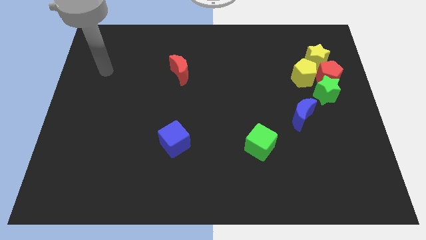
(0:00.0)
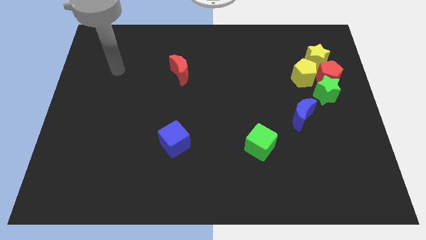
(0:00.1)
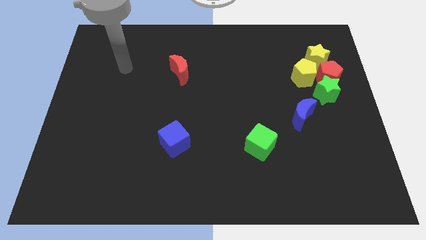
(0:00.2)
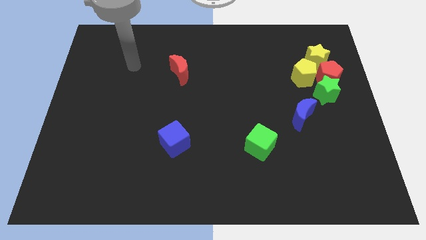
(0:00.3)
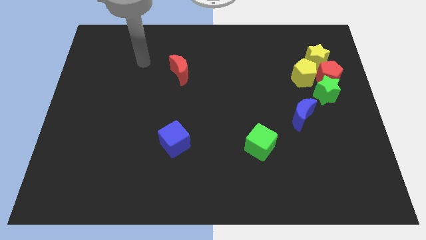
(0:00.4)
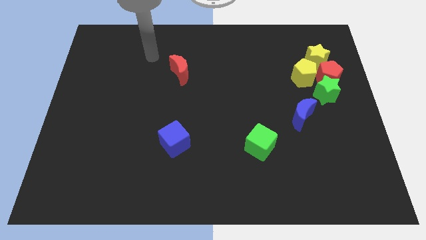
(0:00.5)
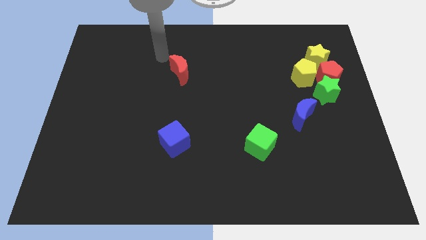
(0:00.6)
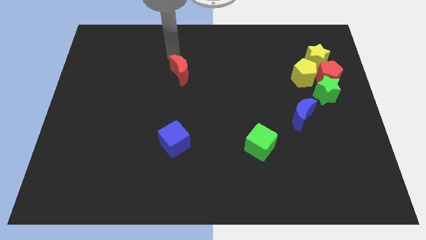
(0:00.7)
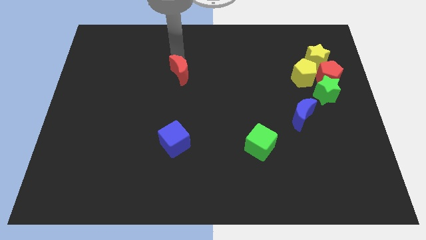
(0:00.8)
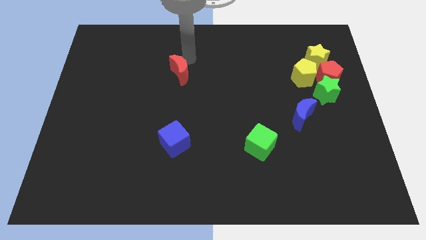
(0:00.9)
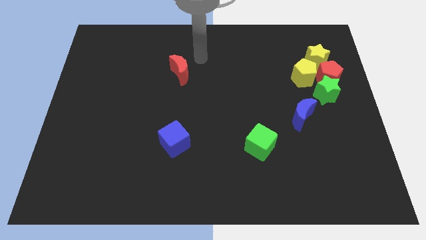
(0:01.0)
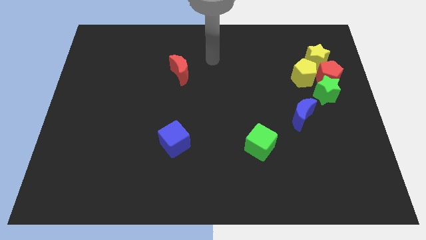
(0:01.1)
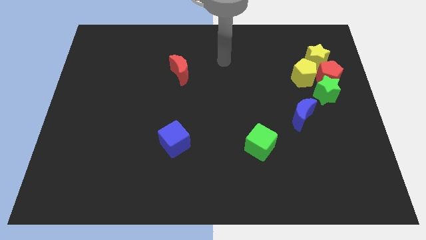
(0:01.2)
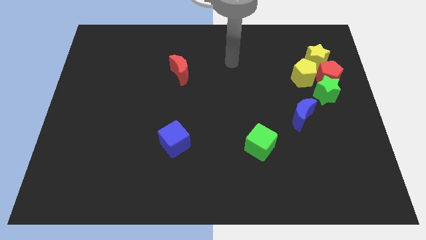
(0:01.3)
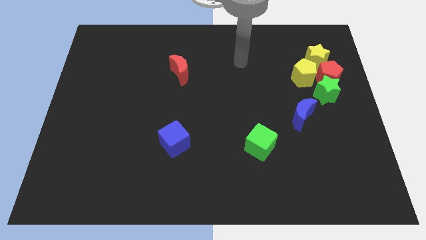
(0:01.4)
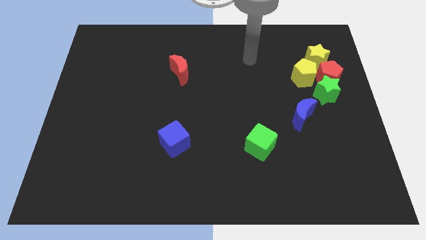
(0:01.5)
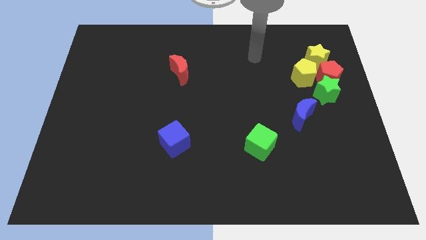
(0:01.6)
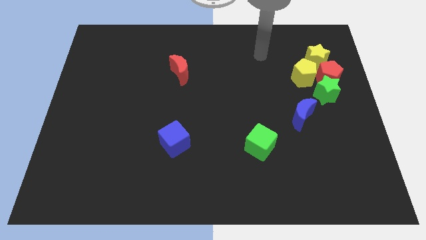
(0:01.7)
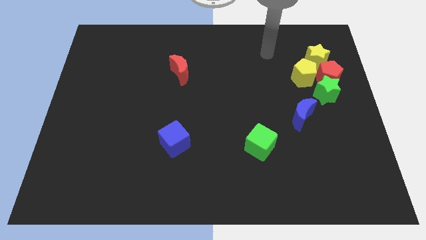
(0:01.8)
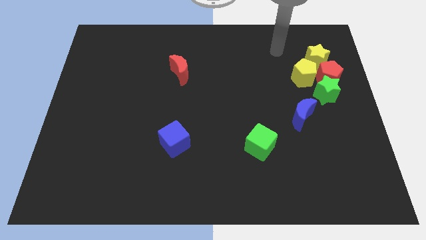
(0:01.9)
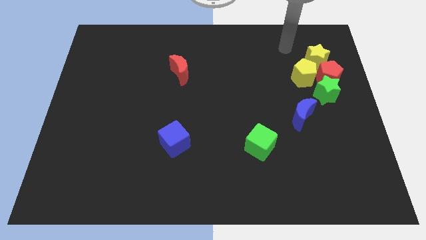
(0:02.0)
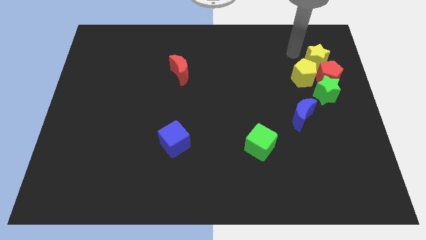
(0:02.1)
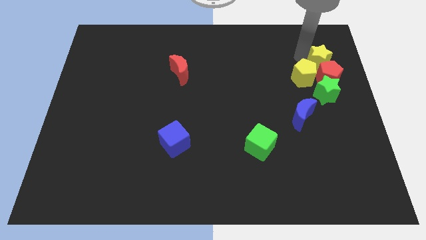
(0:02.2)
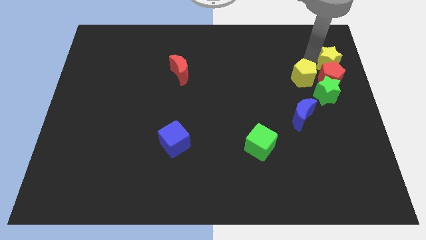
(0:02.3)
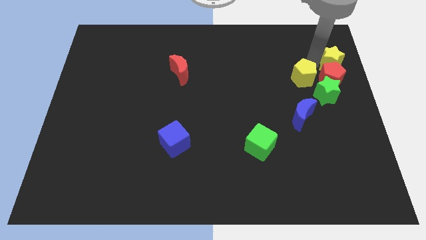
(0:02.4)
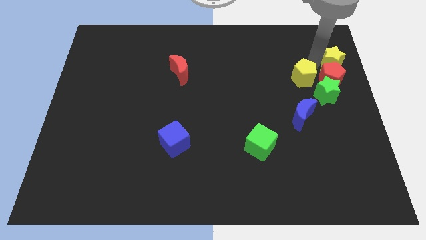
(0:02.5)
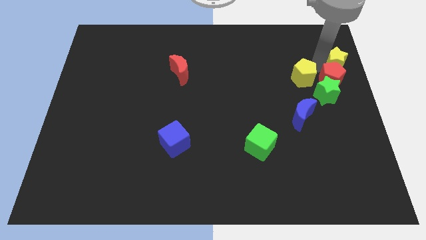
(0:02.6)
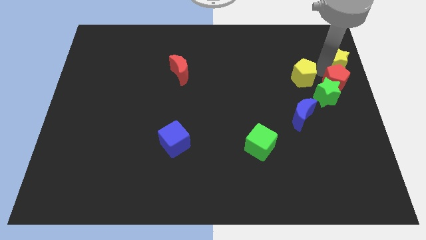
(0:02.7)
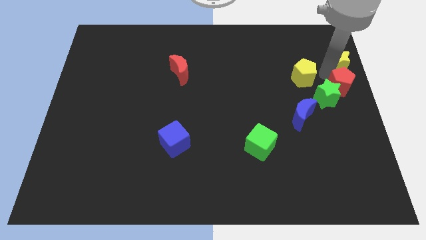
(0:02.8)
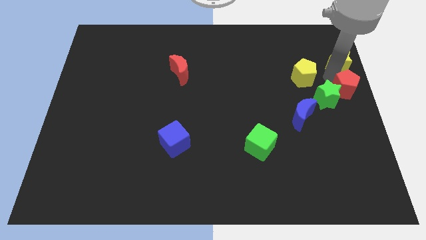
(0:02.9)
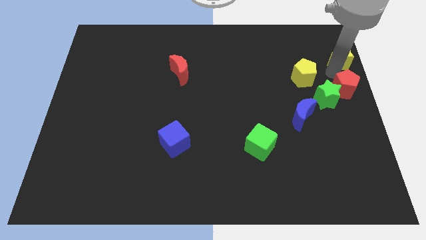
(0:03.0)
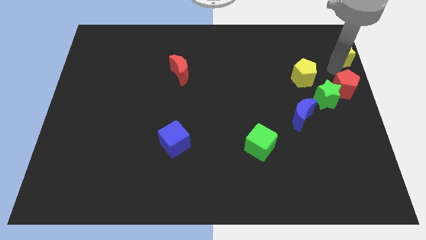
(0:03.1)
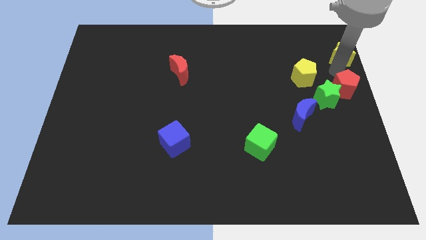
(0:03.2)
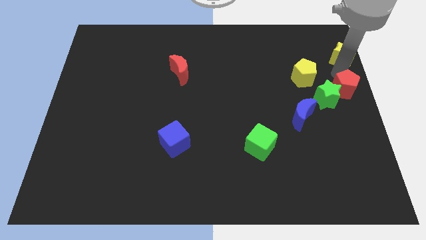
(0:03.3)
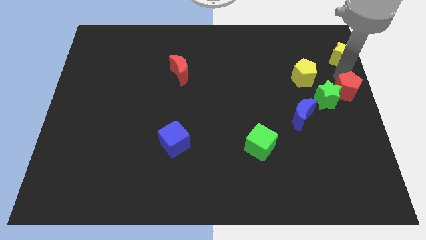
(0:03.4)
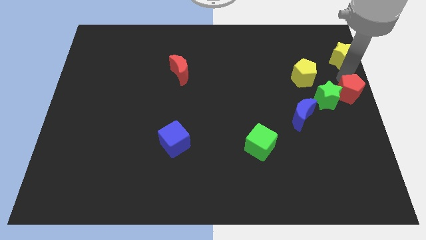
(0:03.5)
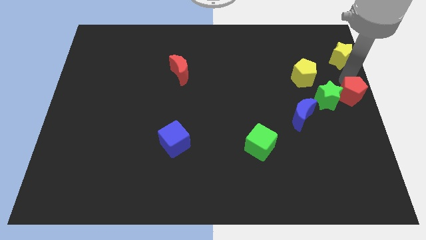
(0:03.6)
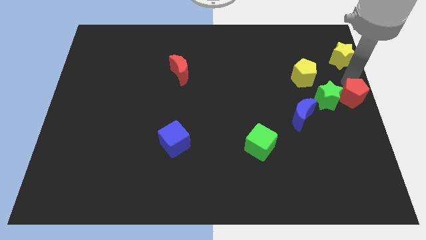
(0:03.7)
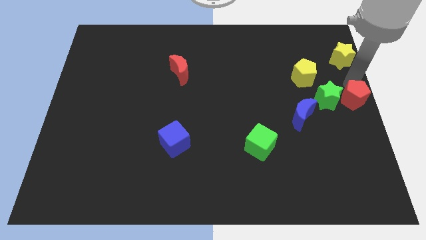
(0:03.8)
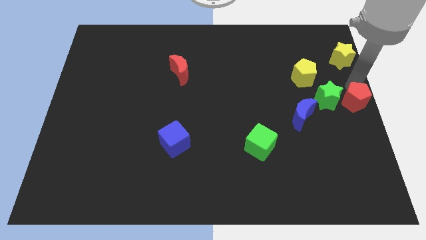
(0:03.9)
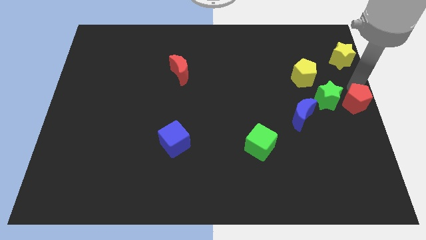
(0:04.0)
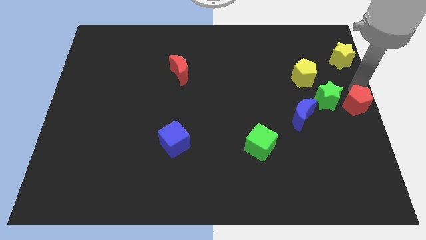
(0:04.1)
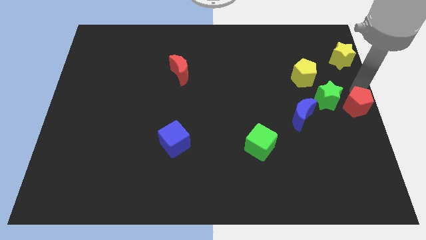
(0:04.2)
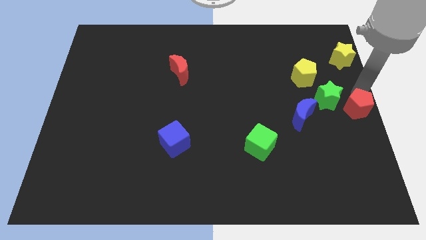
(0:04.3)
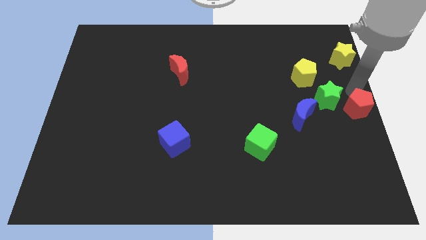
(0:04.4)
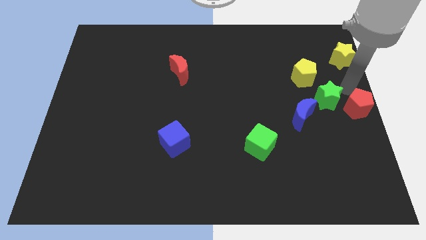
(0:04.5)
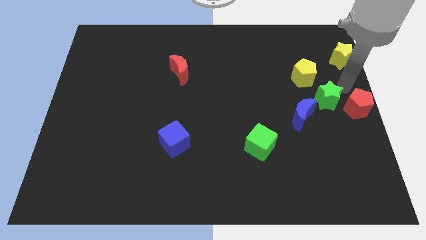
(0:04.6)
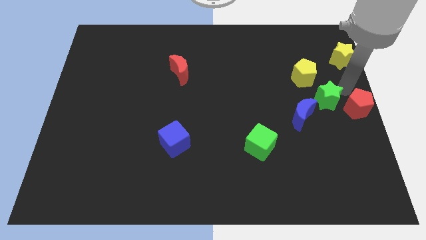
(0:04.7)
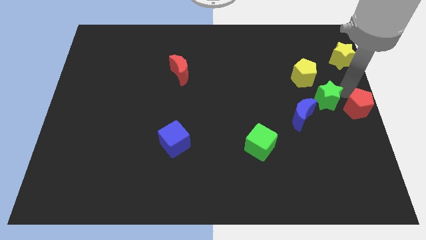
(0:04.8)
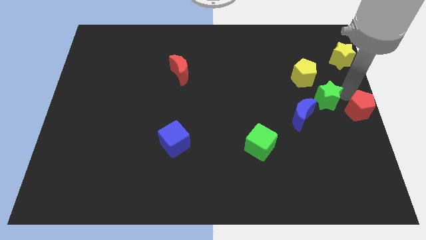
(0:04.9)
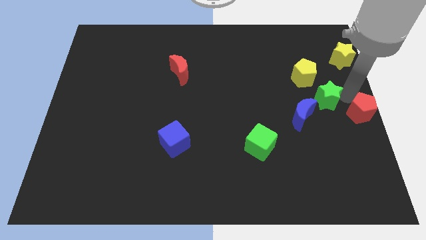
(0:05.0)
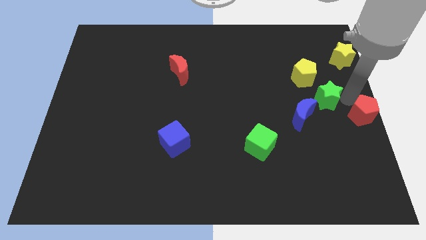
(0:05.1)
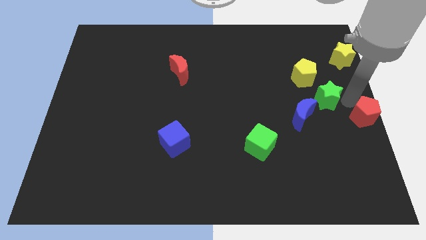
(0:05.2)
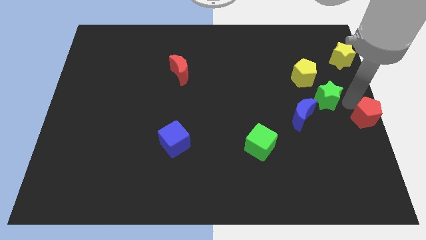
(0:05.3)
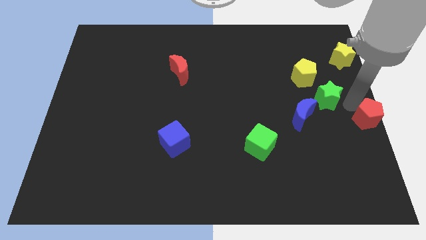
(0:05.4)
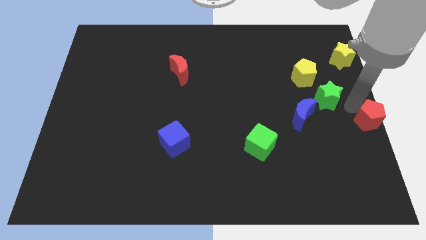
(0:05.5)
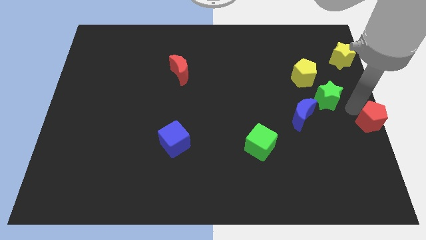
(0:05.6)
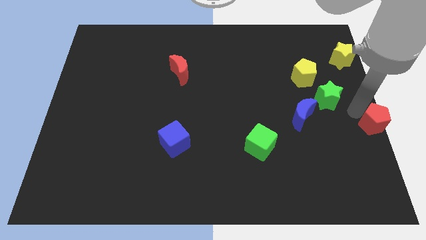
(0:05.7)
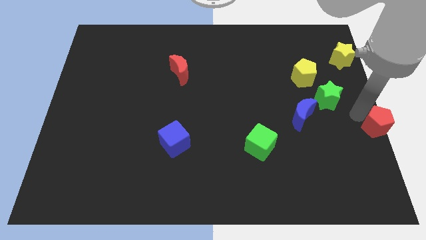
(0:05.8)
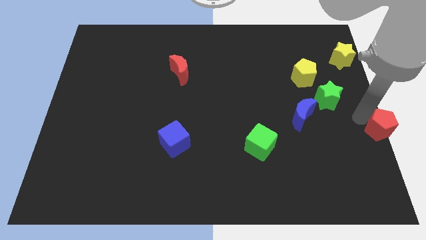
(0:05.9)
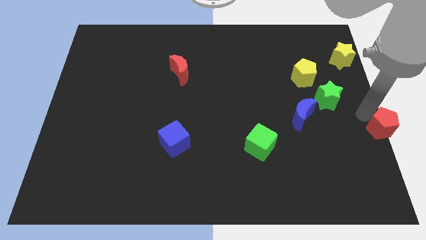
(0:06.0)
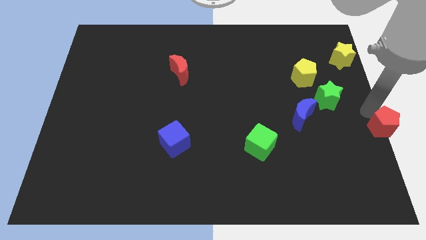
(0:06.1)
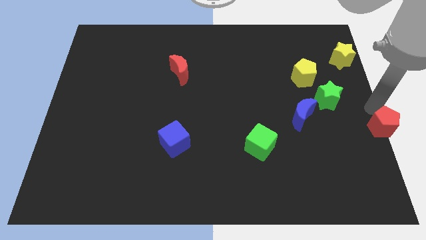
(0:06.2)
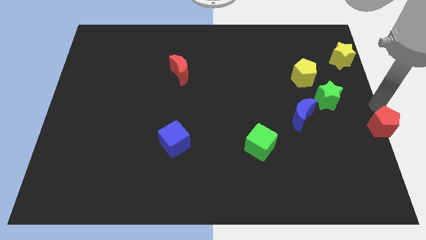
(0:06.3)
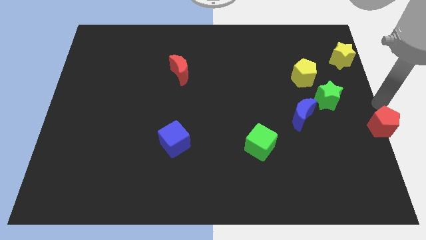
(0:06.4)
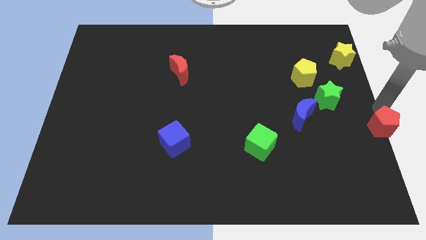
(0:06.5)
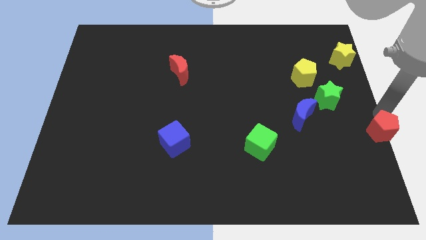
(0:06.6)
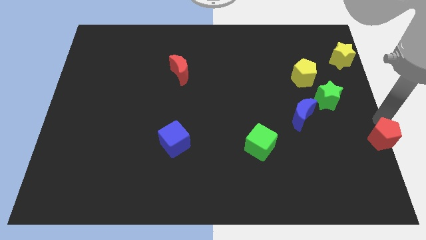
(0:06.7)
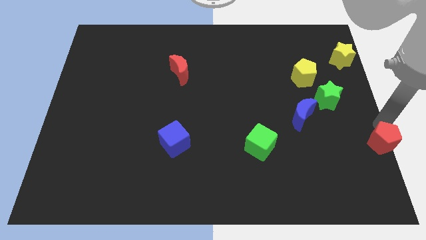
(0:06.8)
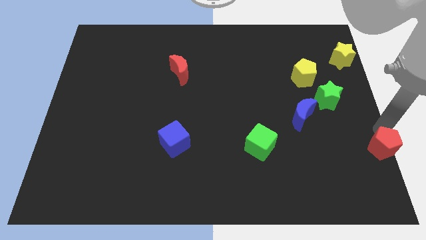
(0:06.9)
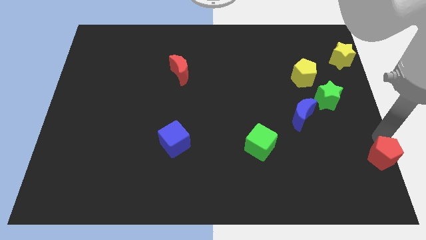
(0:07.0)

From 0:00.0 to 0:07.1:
push the red pentagon to the bottom right of the board
